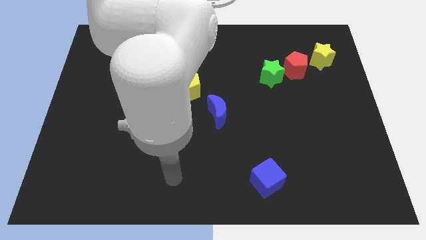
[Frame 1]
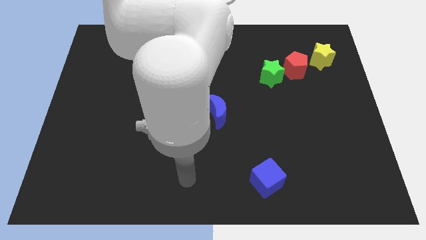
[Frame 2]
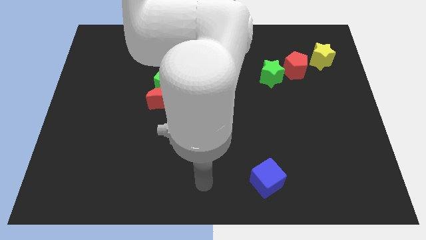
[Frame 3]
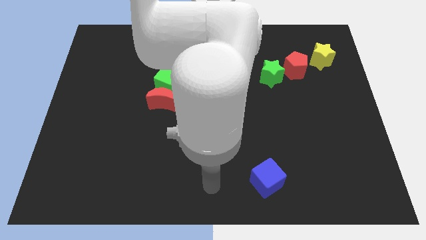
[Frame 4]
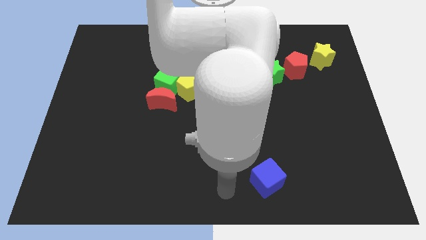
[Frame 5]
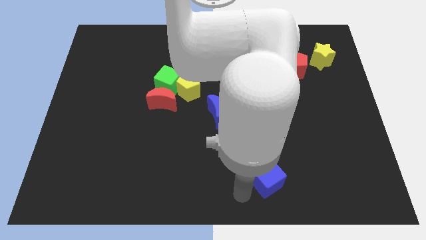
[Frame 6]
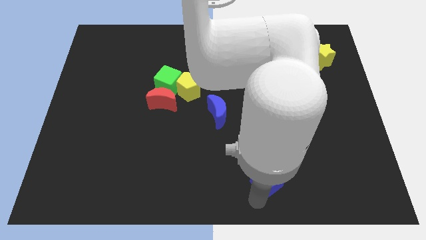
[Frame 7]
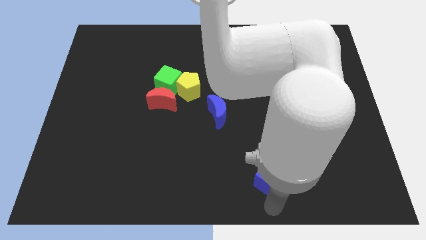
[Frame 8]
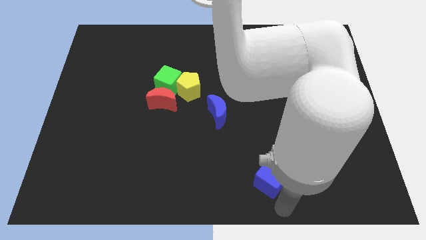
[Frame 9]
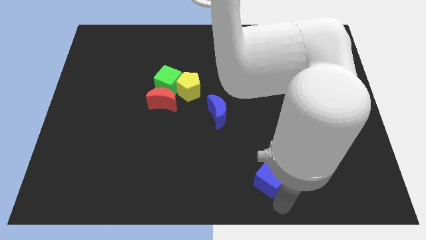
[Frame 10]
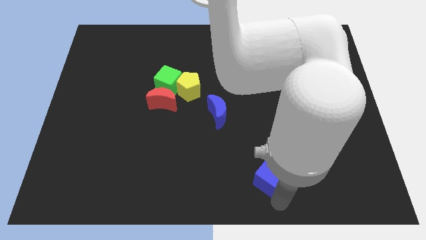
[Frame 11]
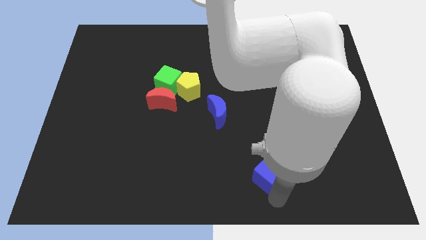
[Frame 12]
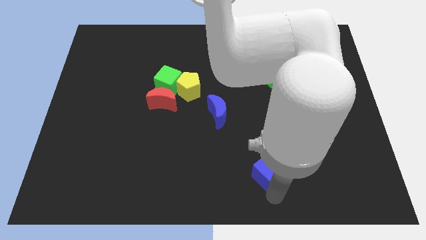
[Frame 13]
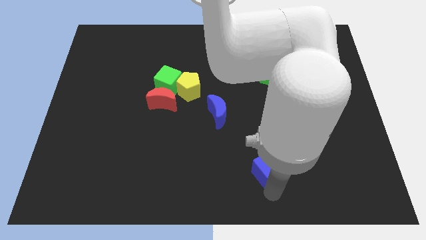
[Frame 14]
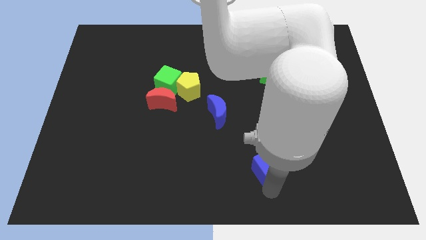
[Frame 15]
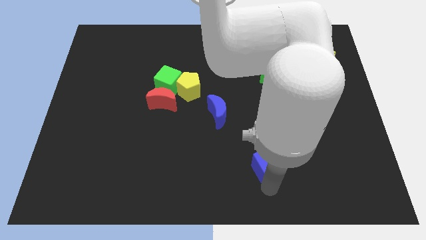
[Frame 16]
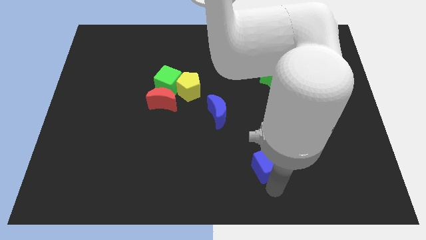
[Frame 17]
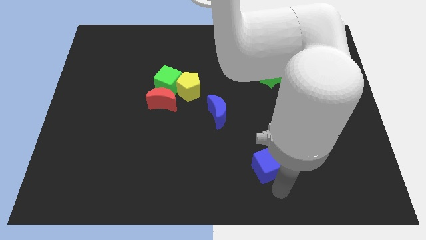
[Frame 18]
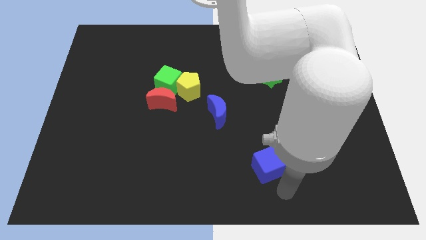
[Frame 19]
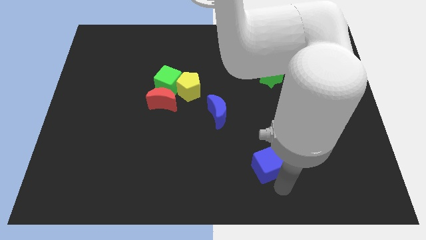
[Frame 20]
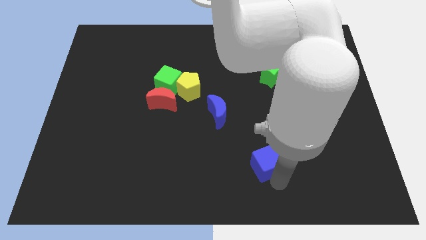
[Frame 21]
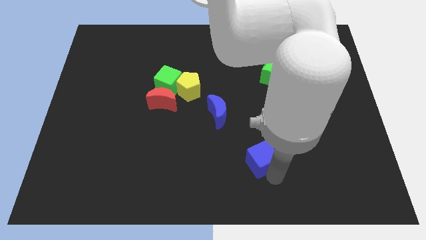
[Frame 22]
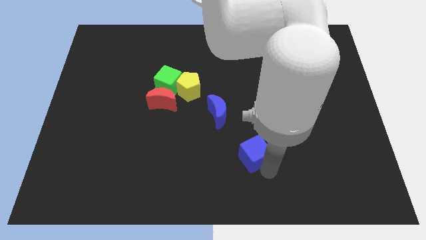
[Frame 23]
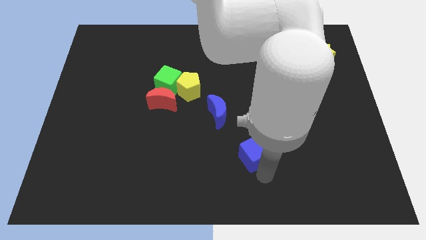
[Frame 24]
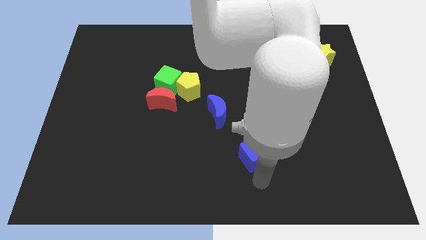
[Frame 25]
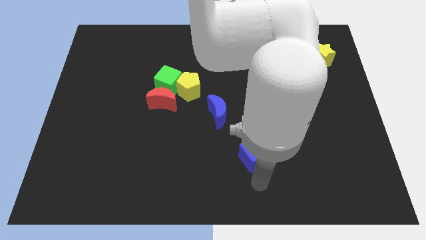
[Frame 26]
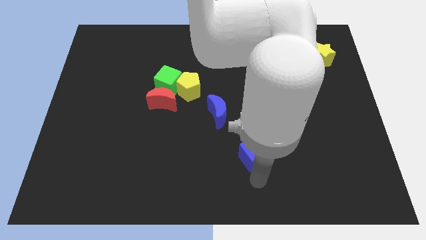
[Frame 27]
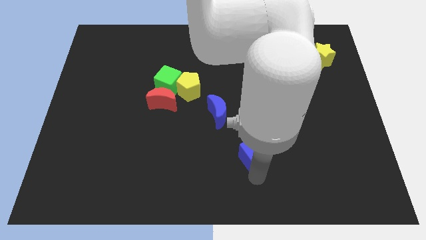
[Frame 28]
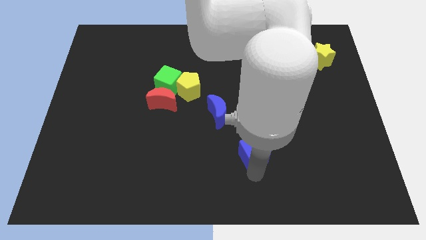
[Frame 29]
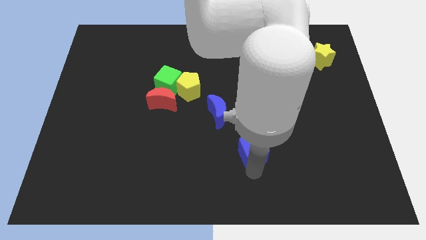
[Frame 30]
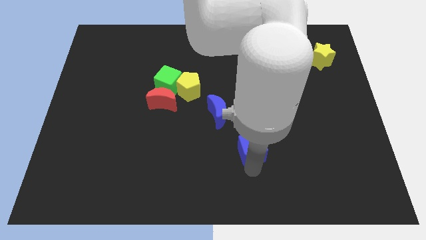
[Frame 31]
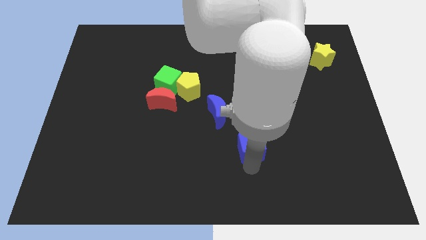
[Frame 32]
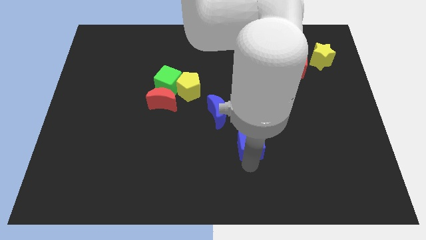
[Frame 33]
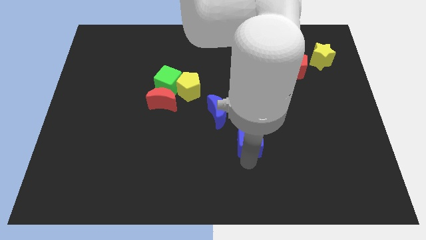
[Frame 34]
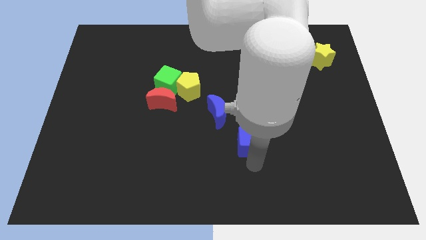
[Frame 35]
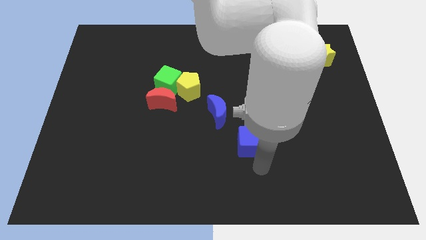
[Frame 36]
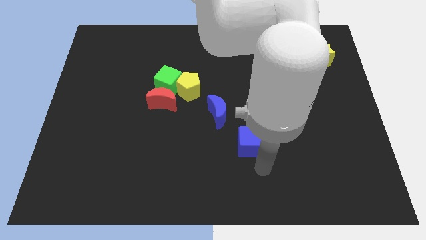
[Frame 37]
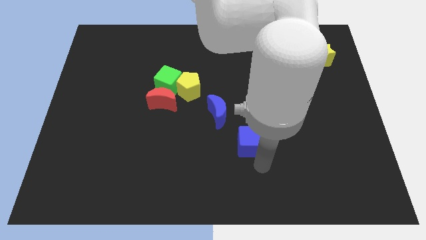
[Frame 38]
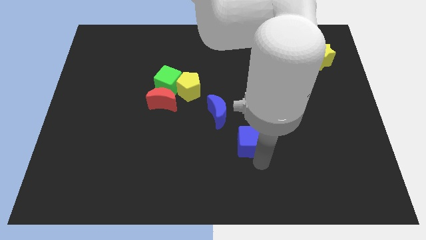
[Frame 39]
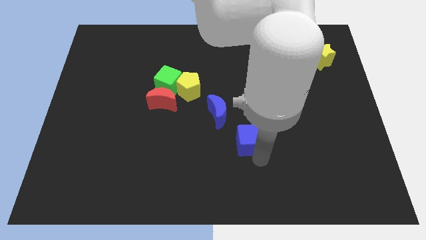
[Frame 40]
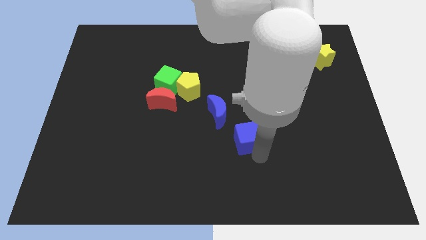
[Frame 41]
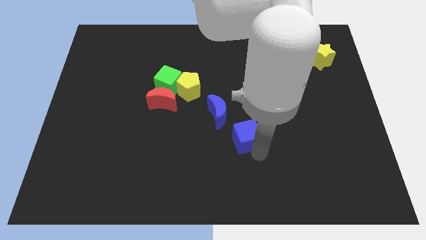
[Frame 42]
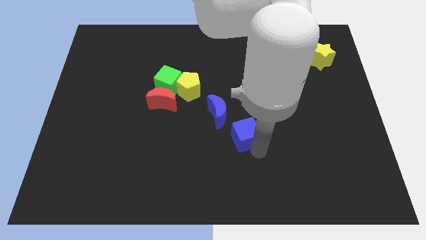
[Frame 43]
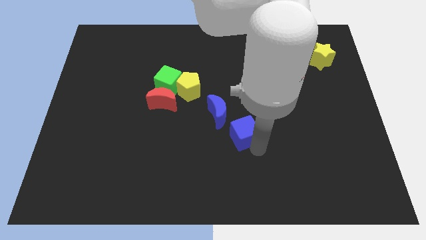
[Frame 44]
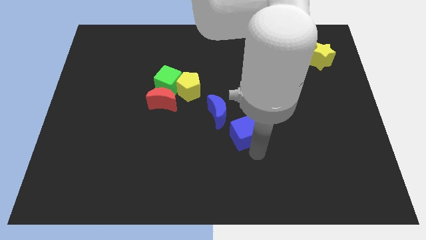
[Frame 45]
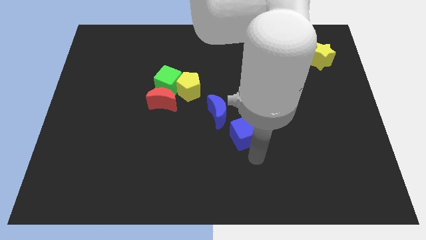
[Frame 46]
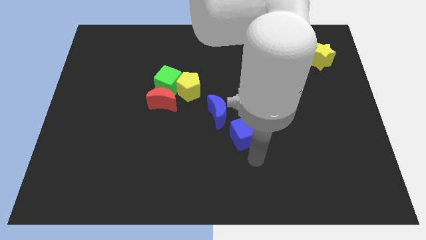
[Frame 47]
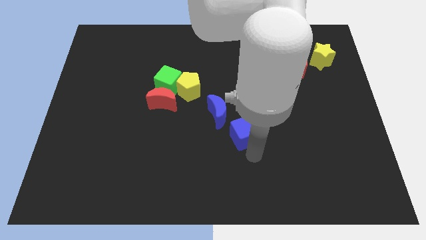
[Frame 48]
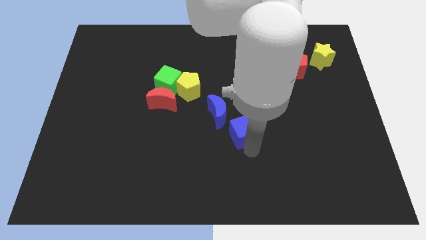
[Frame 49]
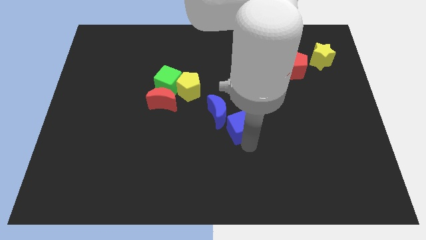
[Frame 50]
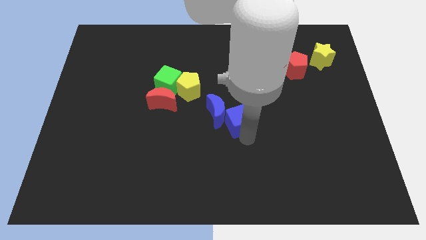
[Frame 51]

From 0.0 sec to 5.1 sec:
slide the blue cube to the blue moon

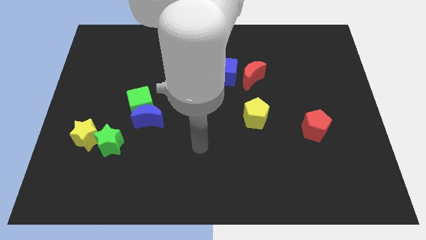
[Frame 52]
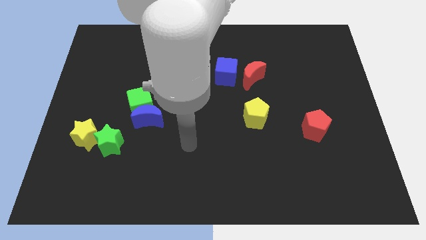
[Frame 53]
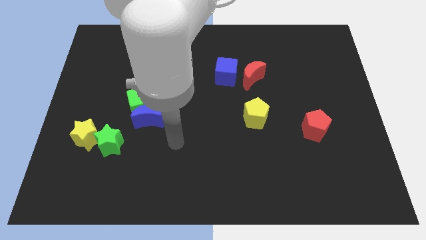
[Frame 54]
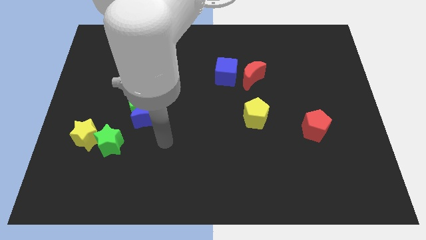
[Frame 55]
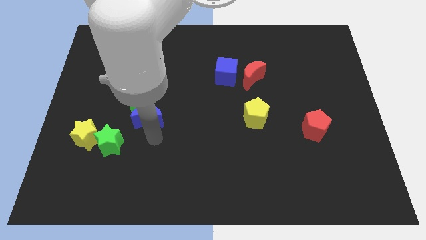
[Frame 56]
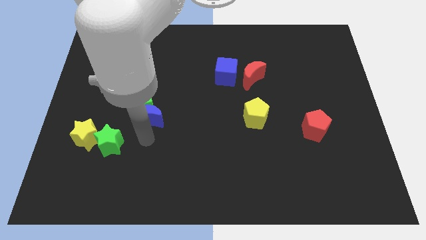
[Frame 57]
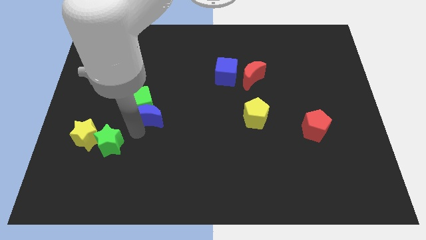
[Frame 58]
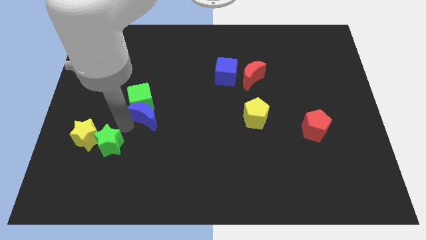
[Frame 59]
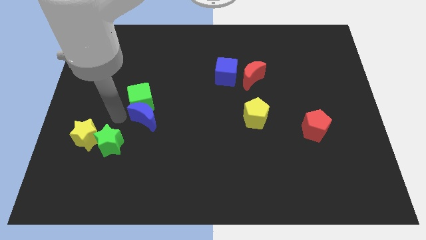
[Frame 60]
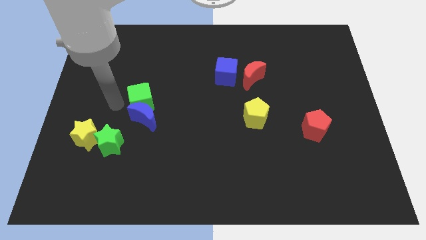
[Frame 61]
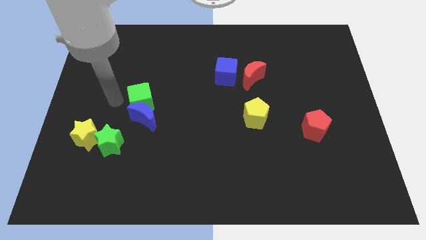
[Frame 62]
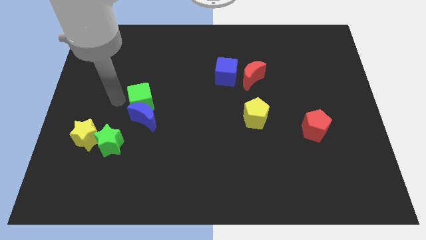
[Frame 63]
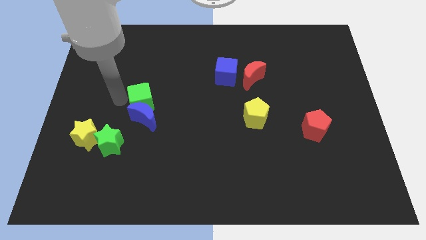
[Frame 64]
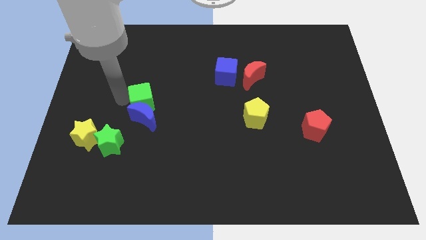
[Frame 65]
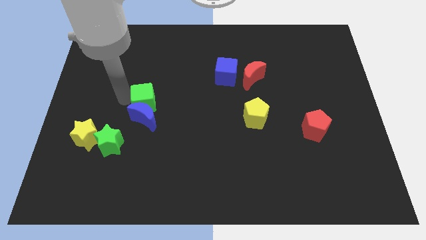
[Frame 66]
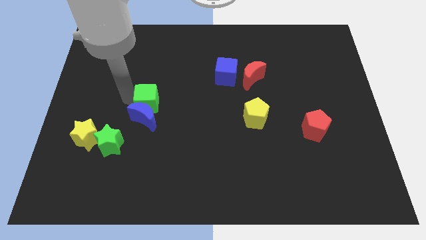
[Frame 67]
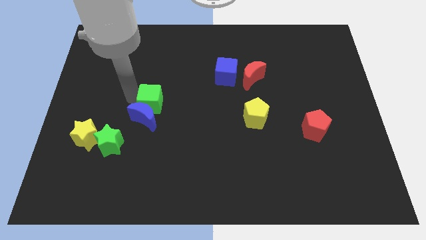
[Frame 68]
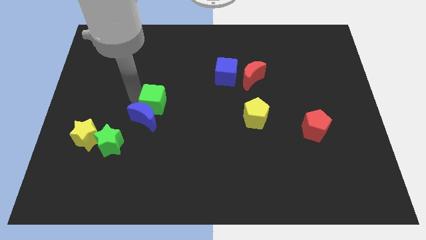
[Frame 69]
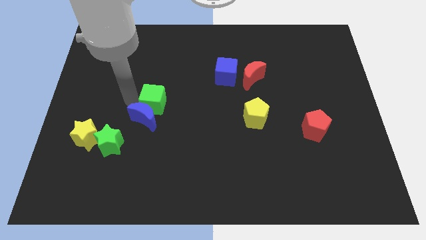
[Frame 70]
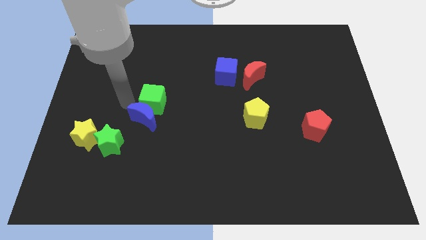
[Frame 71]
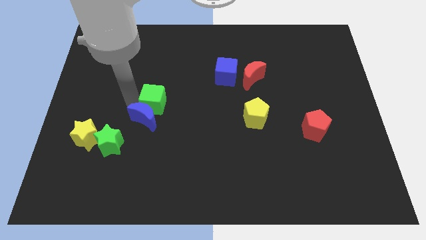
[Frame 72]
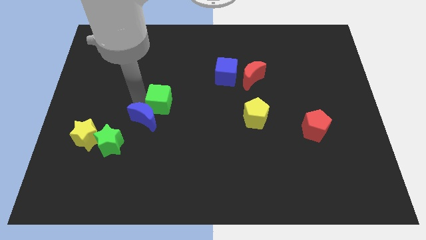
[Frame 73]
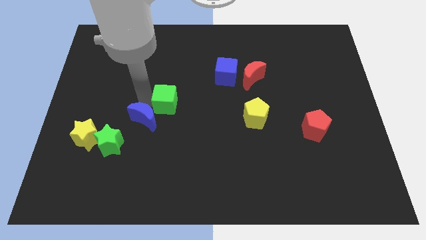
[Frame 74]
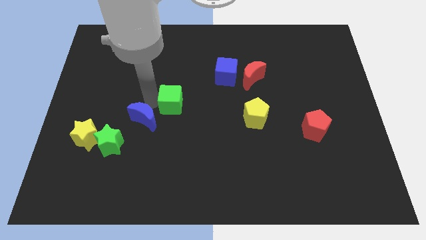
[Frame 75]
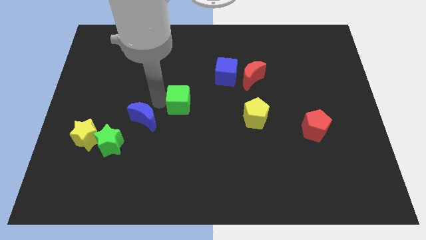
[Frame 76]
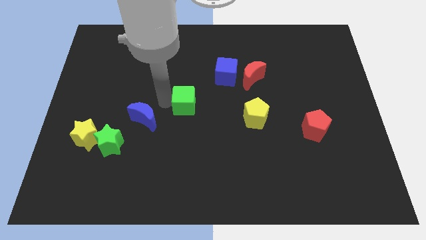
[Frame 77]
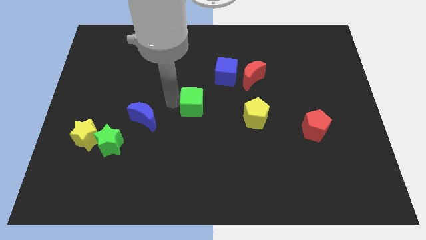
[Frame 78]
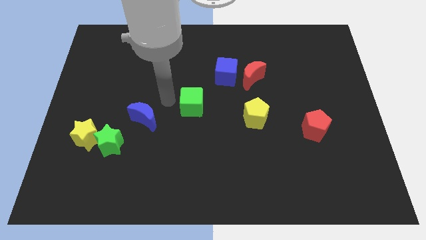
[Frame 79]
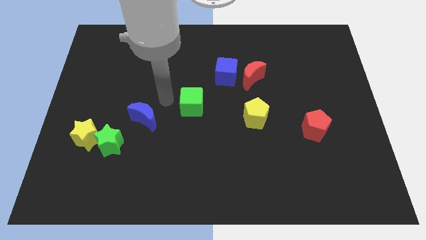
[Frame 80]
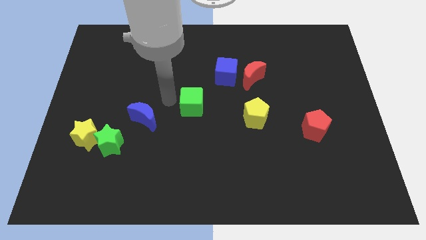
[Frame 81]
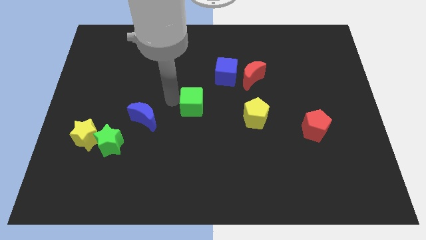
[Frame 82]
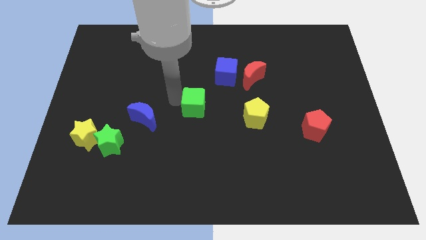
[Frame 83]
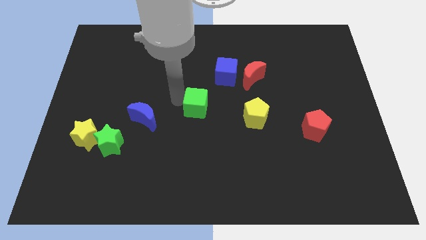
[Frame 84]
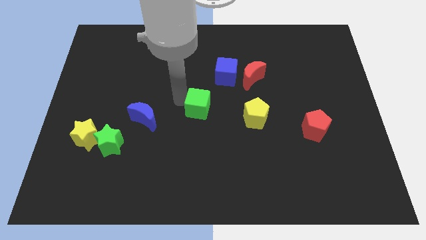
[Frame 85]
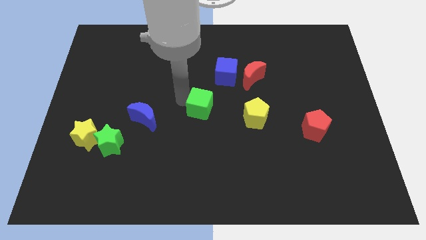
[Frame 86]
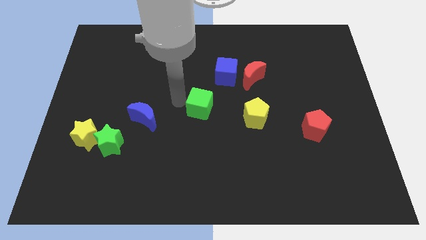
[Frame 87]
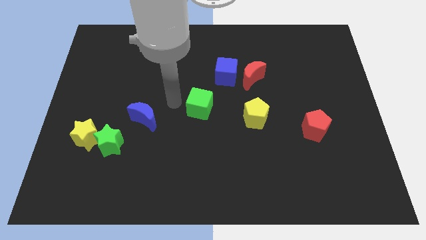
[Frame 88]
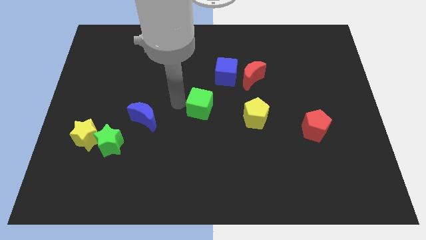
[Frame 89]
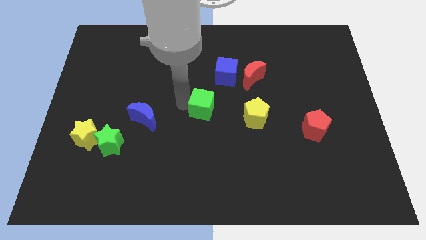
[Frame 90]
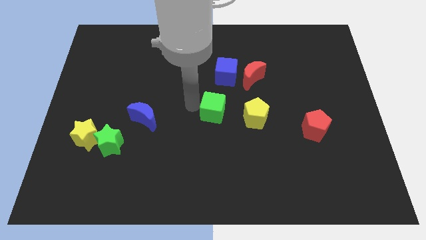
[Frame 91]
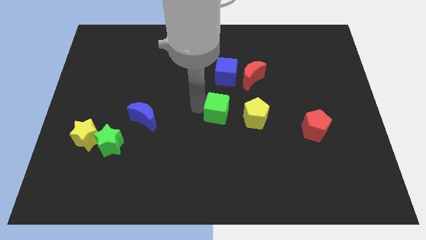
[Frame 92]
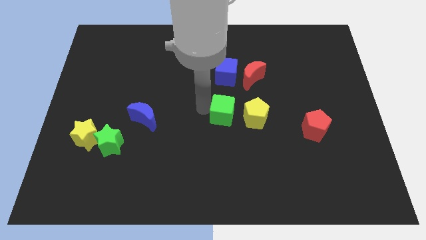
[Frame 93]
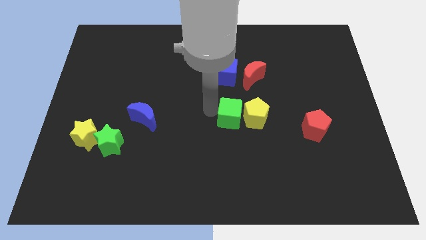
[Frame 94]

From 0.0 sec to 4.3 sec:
move the green cube next to the yellow pentagon
